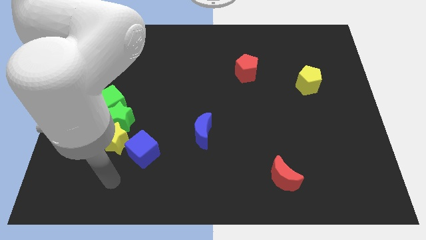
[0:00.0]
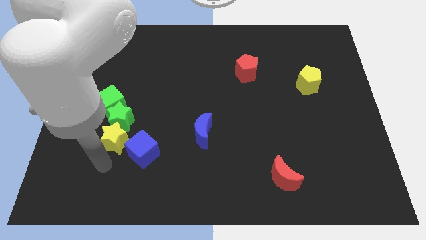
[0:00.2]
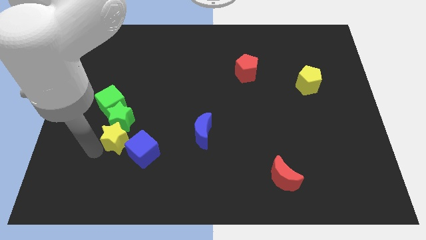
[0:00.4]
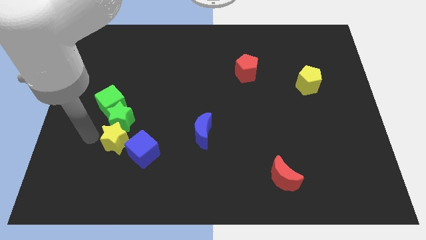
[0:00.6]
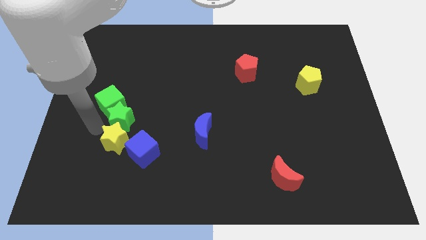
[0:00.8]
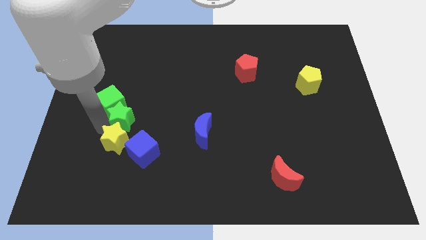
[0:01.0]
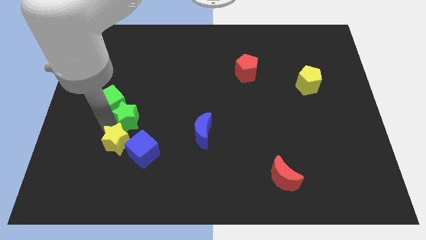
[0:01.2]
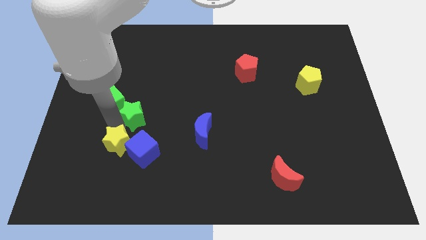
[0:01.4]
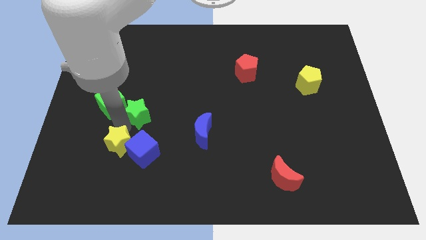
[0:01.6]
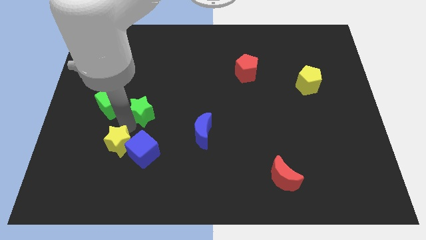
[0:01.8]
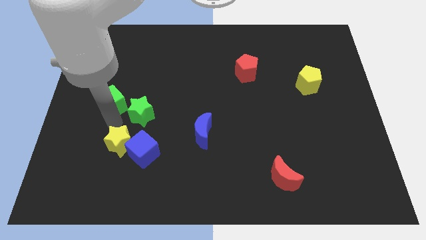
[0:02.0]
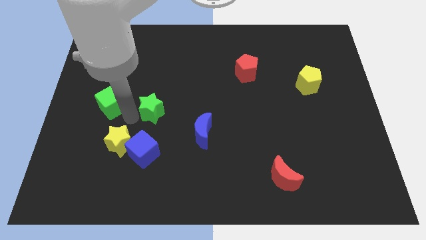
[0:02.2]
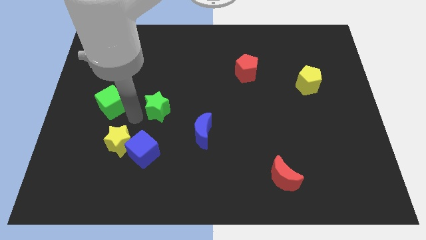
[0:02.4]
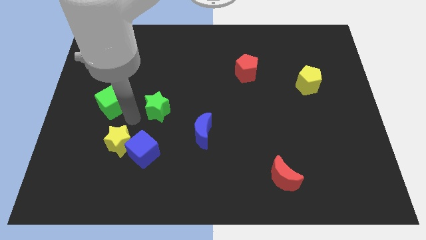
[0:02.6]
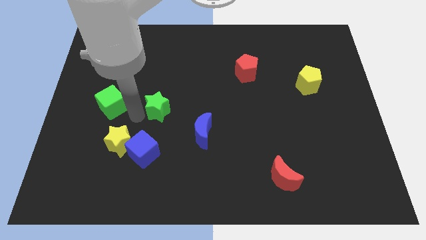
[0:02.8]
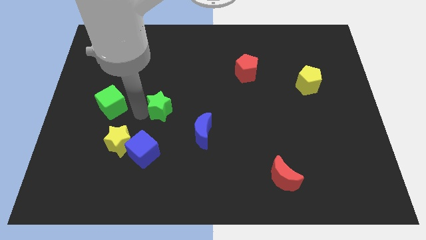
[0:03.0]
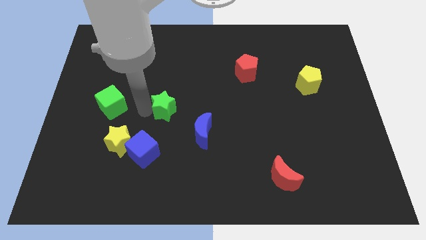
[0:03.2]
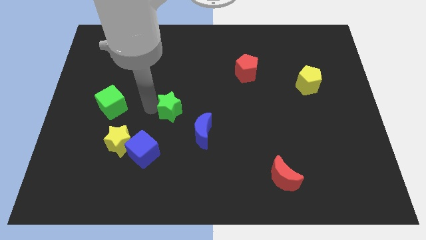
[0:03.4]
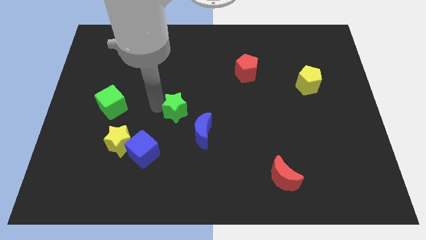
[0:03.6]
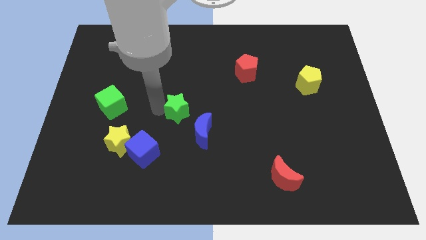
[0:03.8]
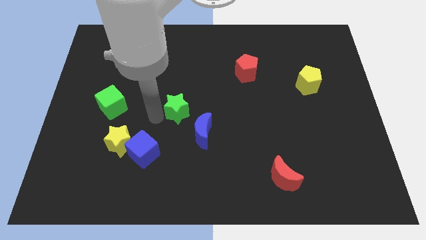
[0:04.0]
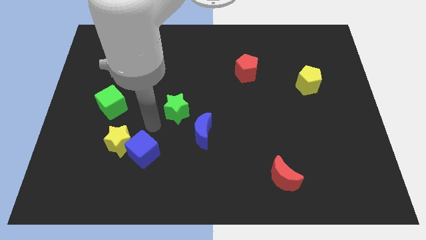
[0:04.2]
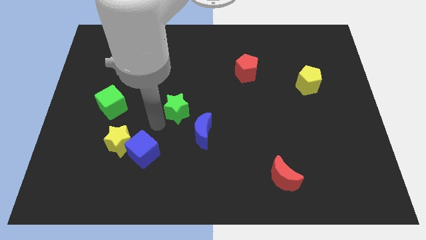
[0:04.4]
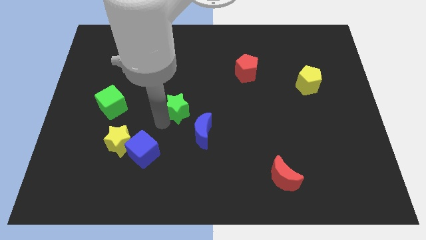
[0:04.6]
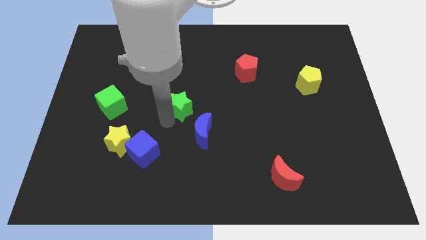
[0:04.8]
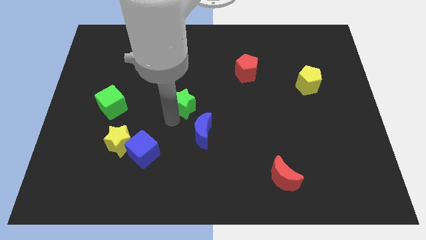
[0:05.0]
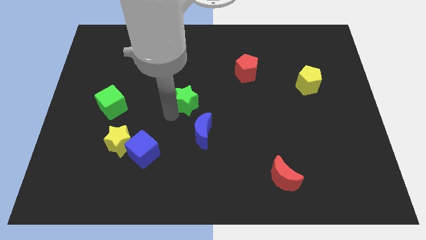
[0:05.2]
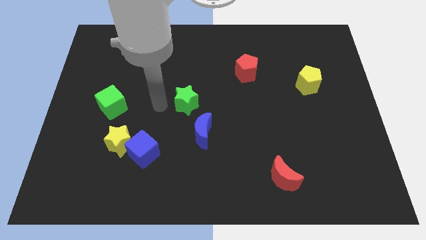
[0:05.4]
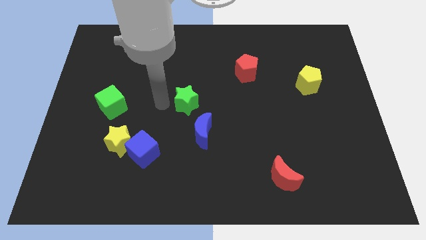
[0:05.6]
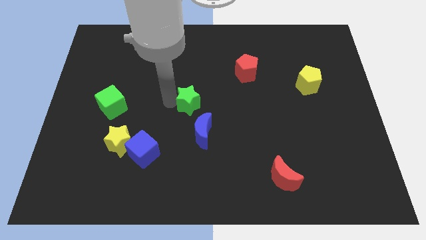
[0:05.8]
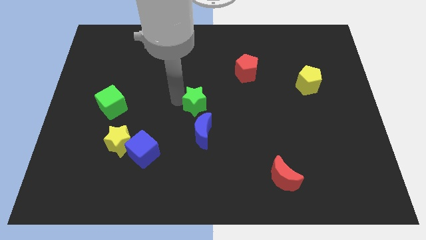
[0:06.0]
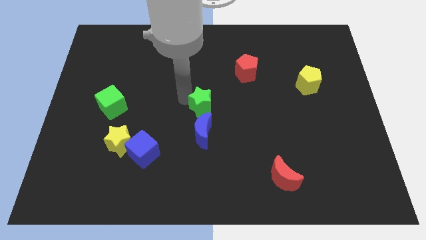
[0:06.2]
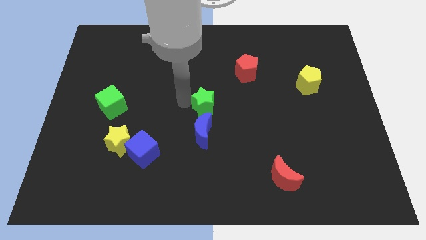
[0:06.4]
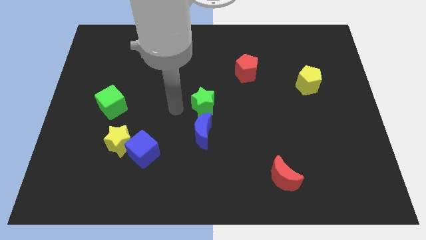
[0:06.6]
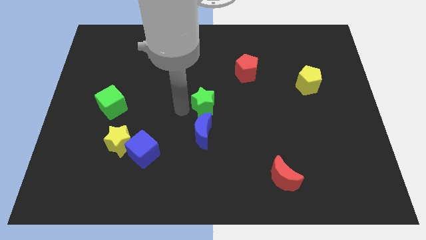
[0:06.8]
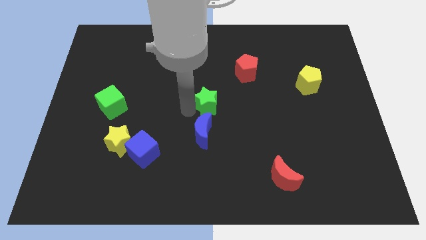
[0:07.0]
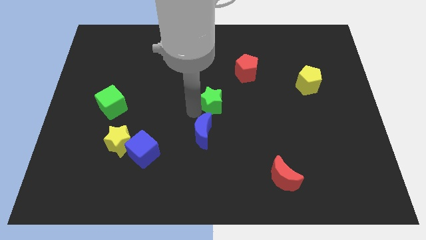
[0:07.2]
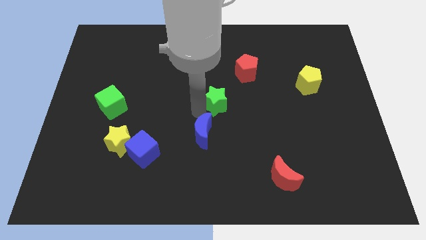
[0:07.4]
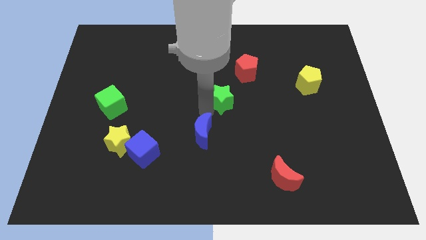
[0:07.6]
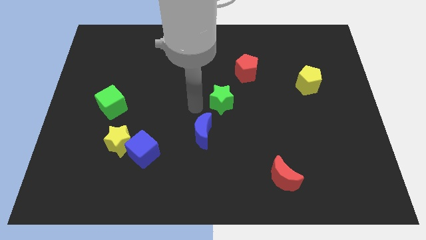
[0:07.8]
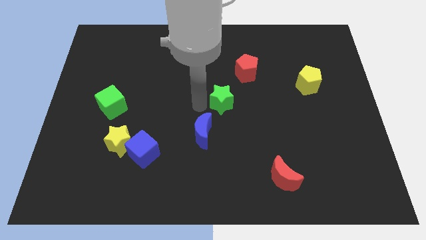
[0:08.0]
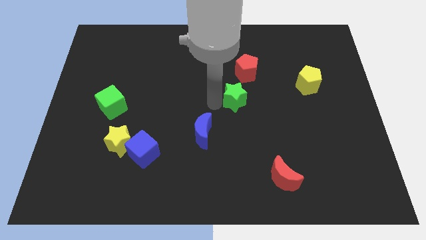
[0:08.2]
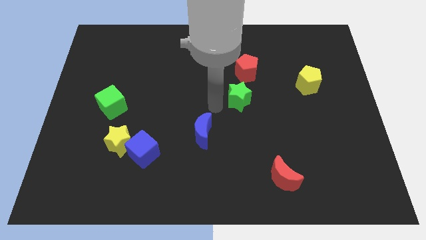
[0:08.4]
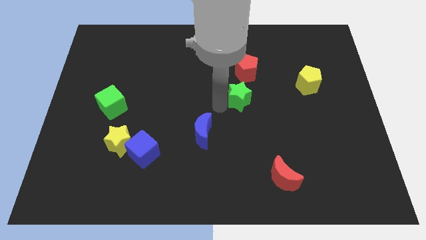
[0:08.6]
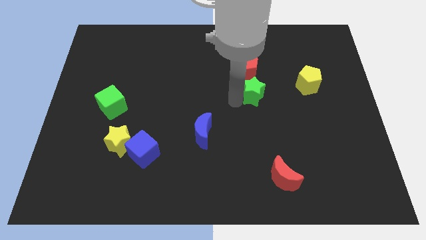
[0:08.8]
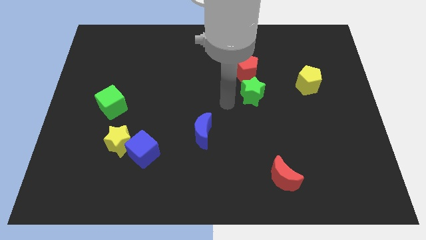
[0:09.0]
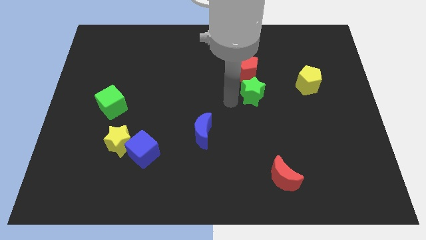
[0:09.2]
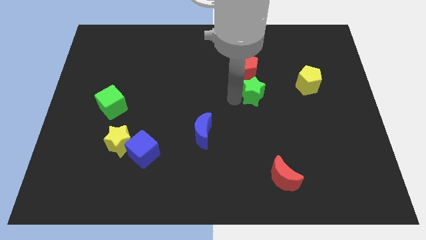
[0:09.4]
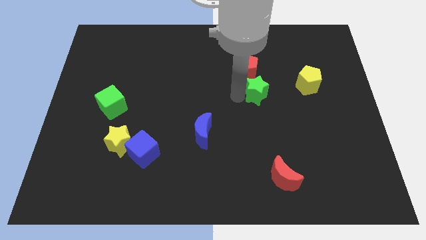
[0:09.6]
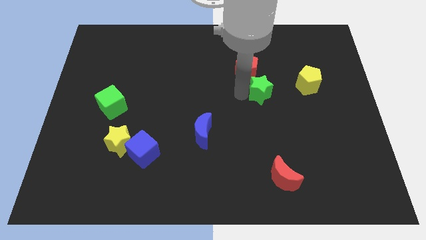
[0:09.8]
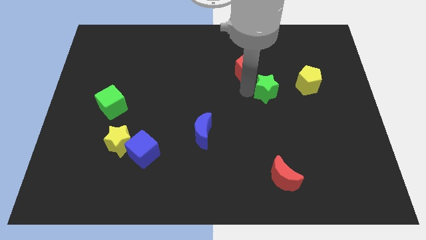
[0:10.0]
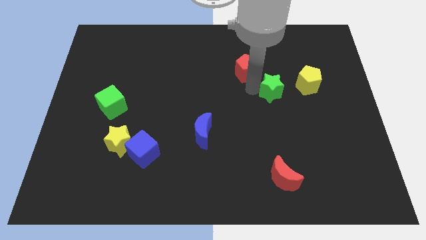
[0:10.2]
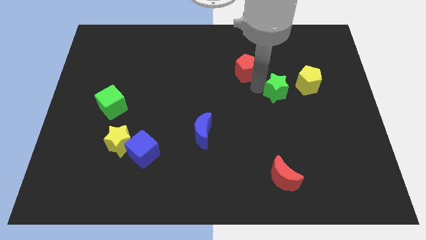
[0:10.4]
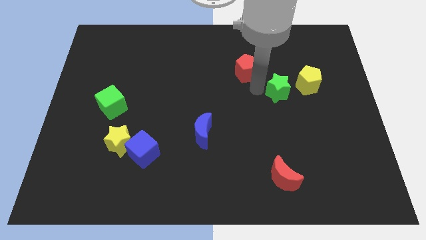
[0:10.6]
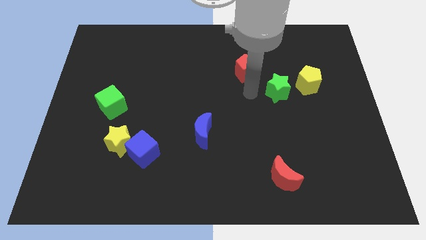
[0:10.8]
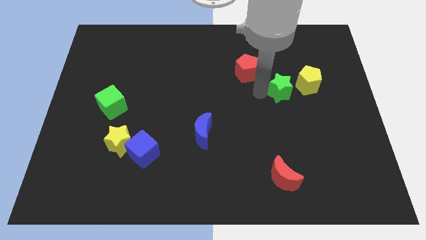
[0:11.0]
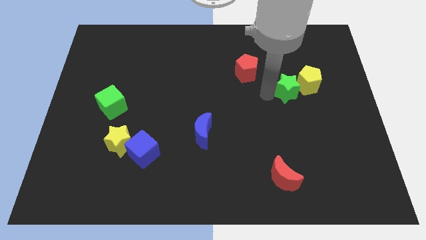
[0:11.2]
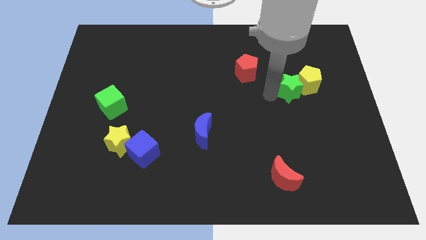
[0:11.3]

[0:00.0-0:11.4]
slide the green star to the yellow pentagon

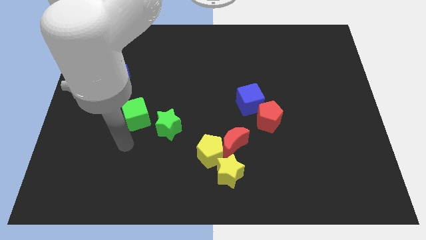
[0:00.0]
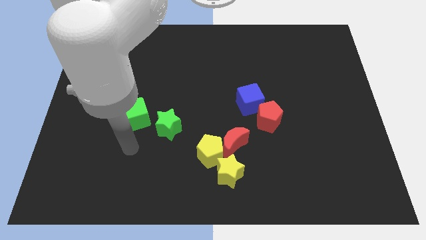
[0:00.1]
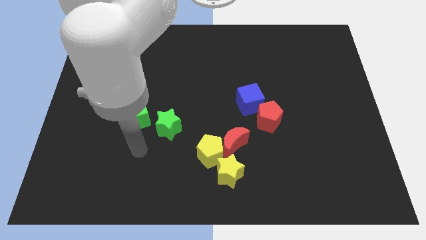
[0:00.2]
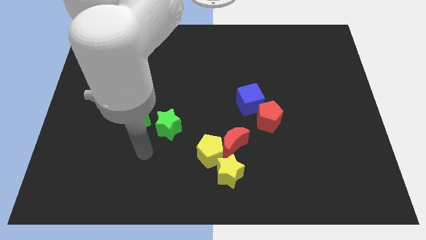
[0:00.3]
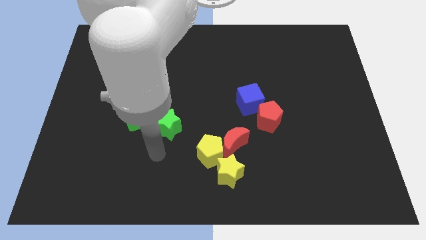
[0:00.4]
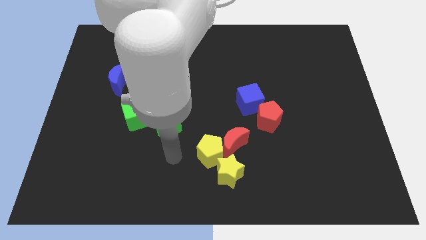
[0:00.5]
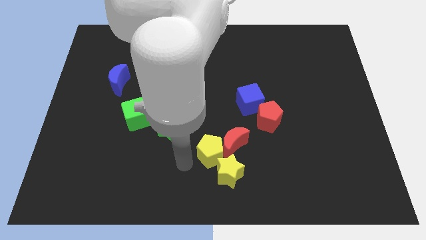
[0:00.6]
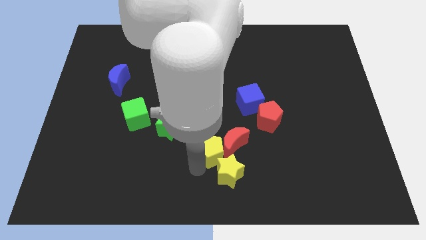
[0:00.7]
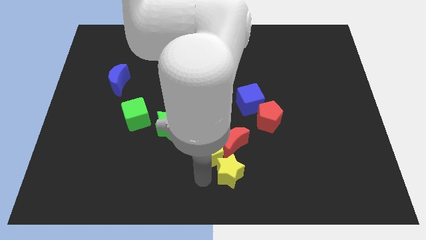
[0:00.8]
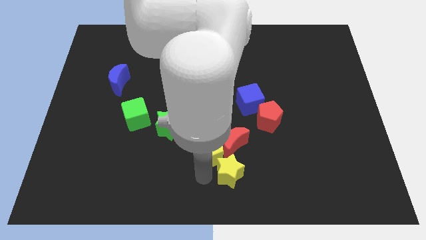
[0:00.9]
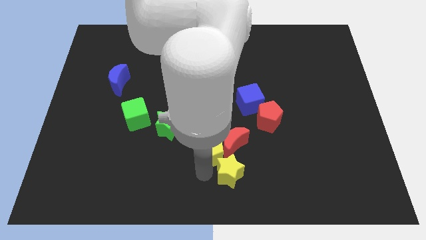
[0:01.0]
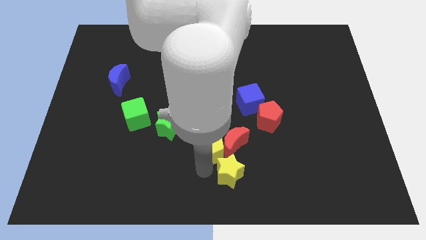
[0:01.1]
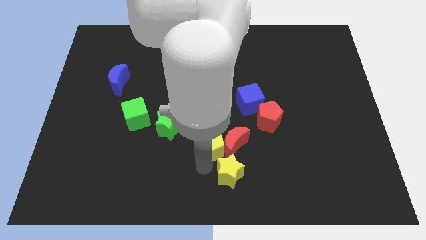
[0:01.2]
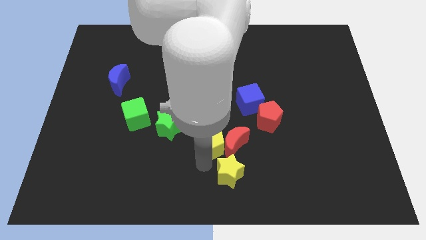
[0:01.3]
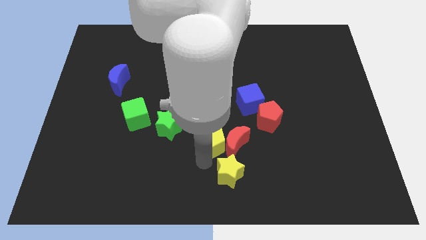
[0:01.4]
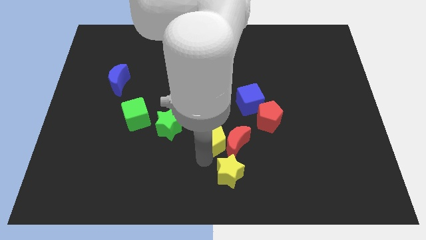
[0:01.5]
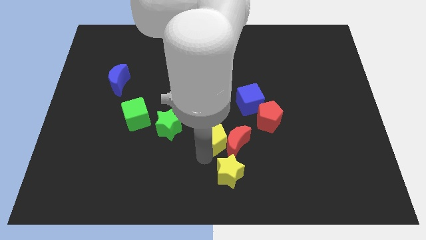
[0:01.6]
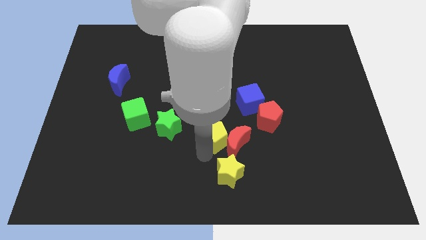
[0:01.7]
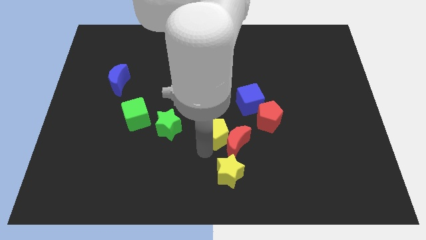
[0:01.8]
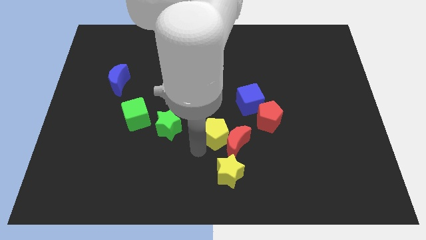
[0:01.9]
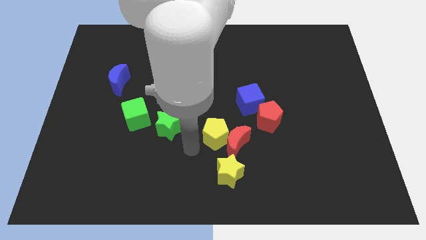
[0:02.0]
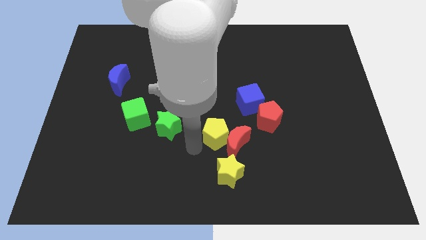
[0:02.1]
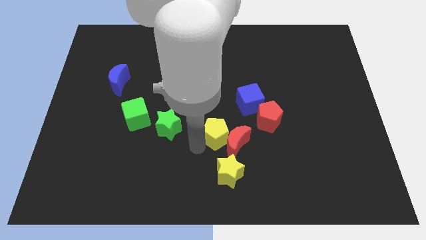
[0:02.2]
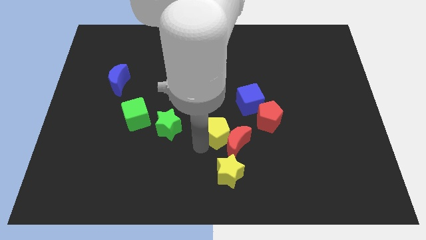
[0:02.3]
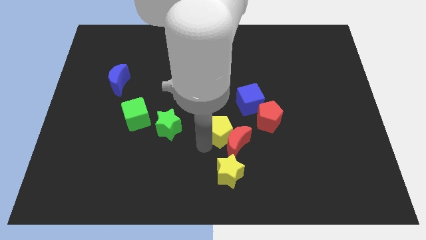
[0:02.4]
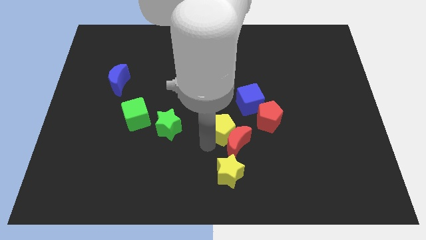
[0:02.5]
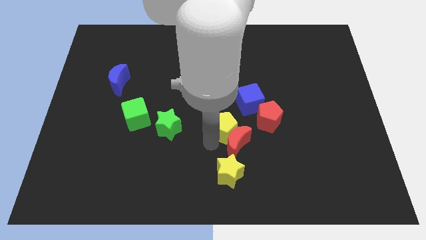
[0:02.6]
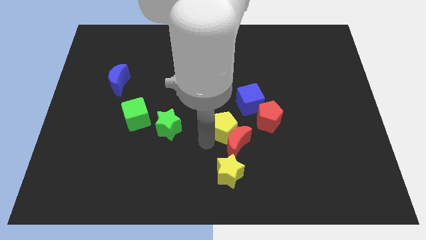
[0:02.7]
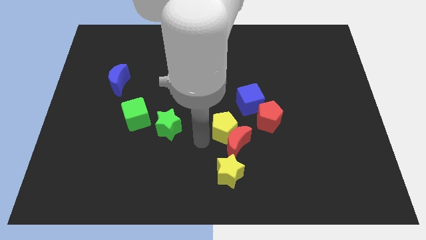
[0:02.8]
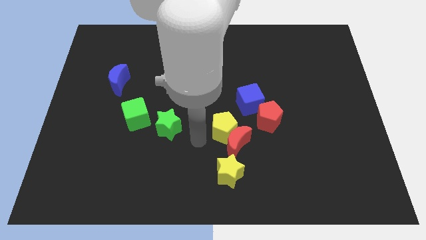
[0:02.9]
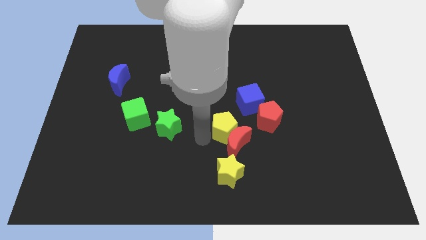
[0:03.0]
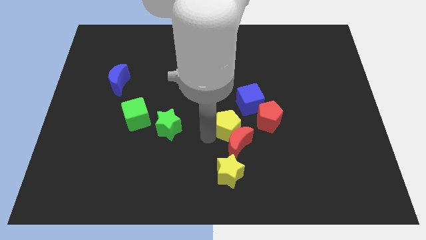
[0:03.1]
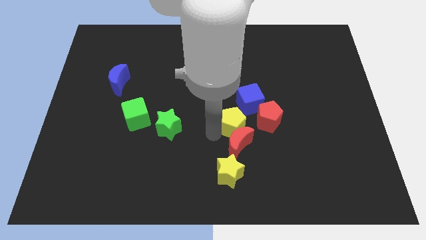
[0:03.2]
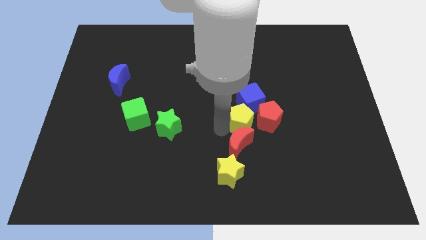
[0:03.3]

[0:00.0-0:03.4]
push the yellow pentagon close to the red pentagon
